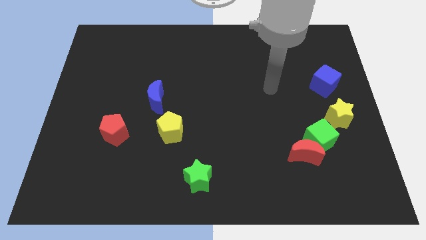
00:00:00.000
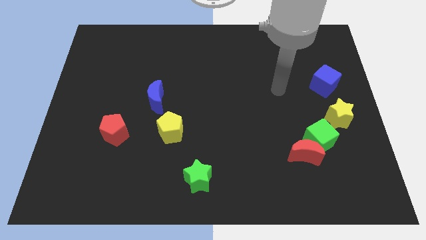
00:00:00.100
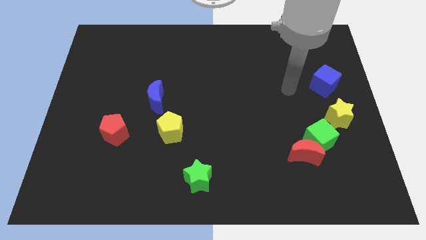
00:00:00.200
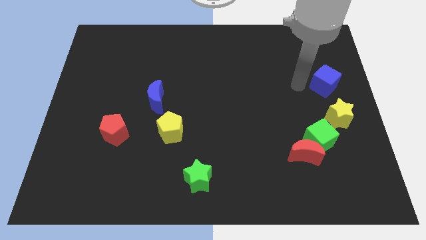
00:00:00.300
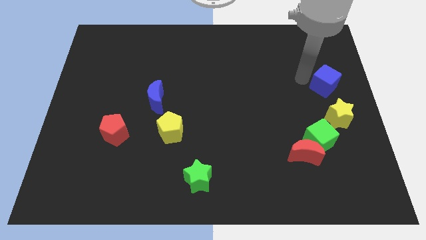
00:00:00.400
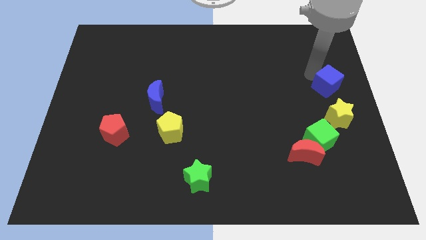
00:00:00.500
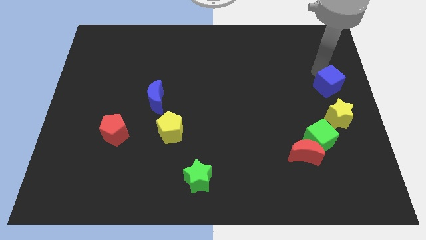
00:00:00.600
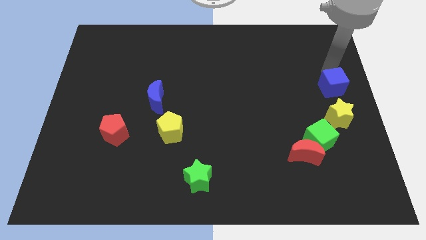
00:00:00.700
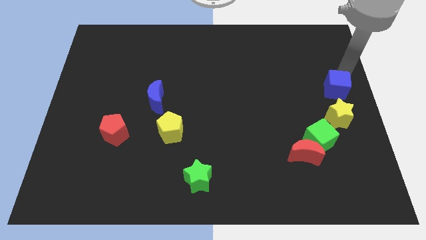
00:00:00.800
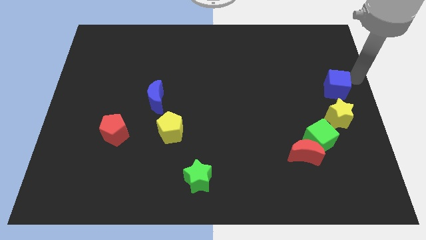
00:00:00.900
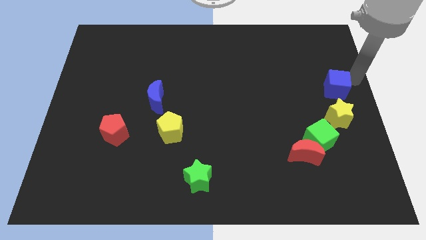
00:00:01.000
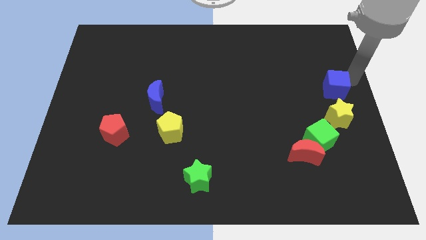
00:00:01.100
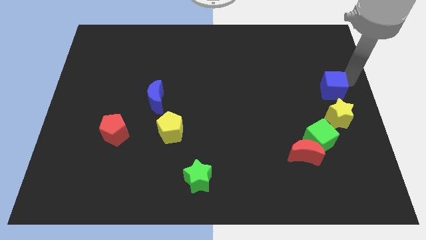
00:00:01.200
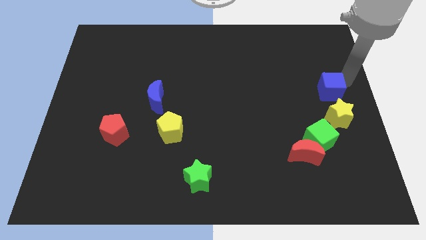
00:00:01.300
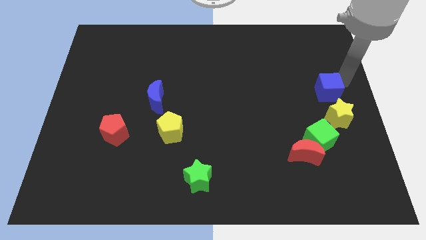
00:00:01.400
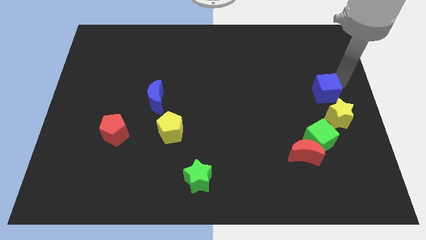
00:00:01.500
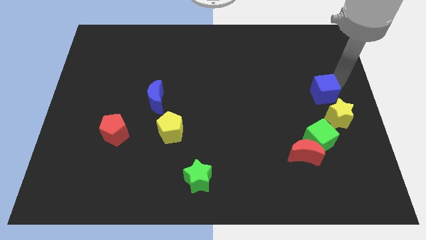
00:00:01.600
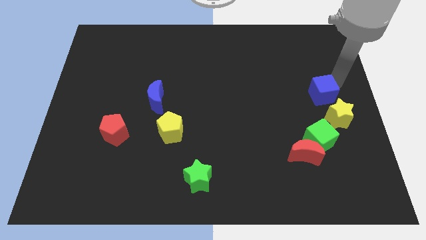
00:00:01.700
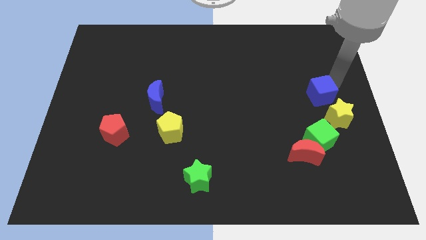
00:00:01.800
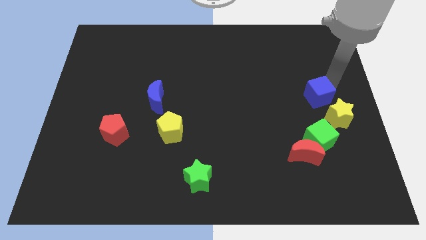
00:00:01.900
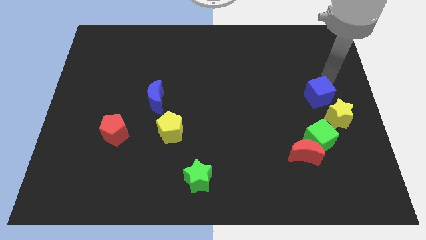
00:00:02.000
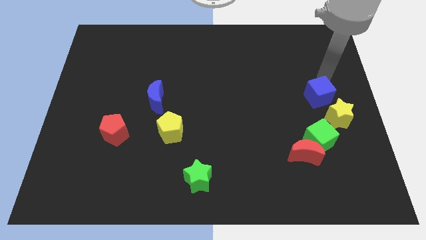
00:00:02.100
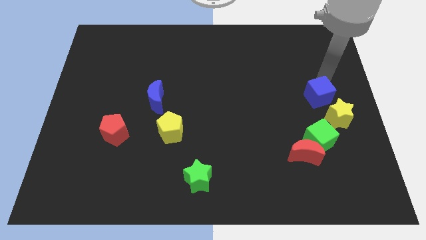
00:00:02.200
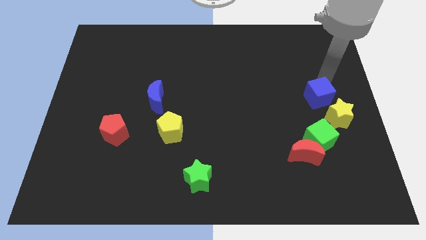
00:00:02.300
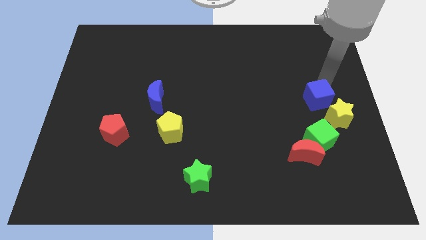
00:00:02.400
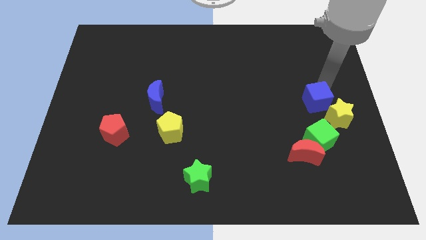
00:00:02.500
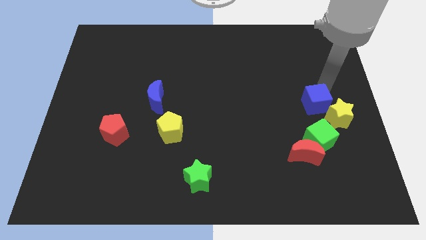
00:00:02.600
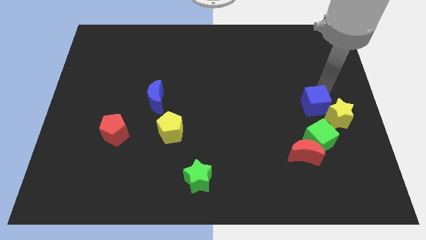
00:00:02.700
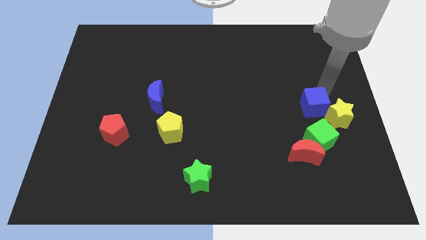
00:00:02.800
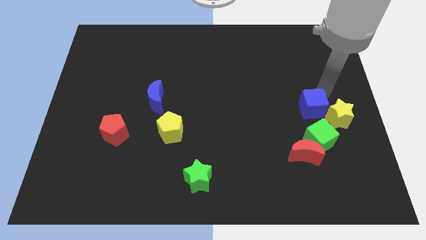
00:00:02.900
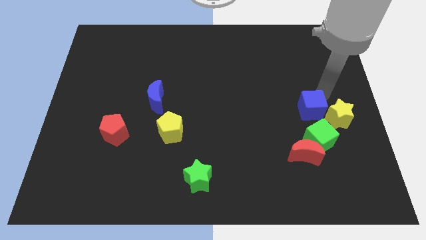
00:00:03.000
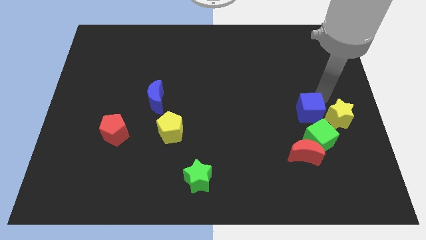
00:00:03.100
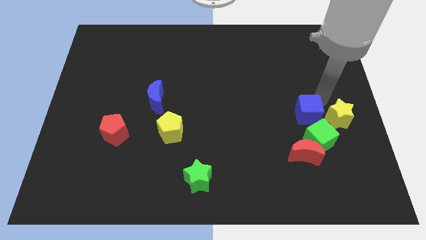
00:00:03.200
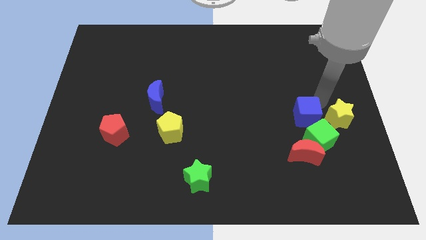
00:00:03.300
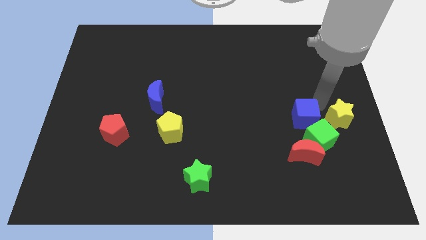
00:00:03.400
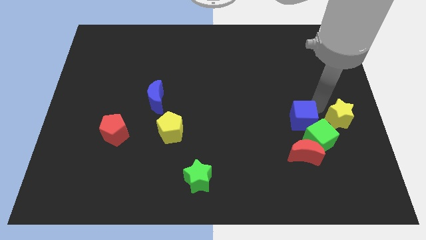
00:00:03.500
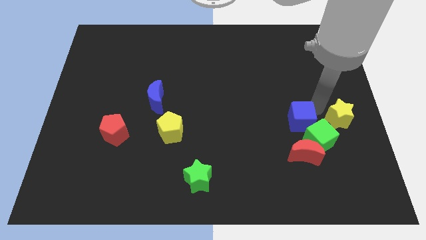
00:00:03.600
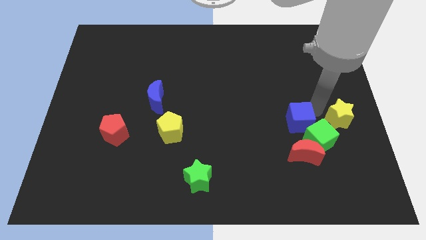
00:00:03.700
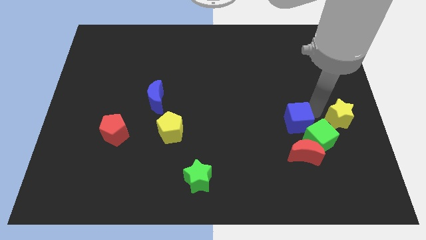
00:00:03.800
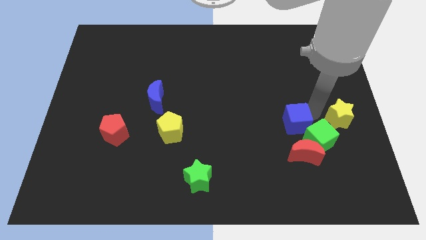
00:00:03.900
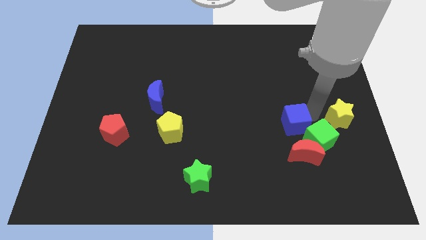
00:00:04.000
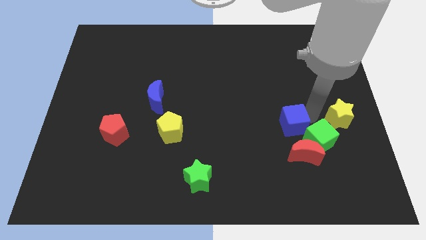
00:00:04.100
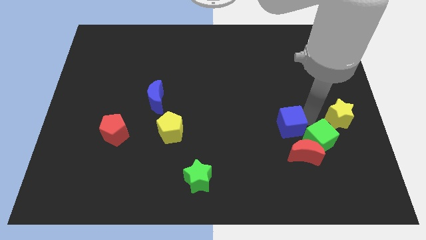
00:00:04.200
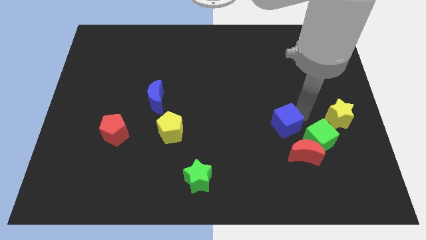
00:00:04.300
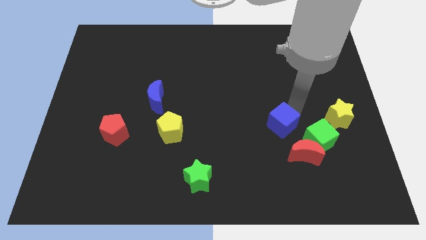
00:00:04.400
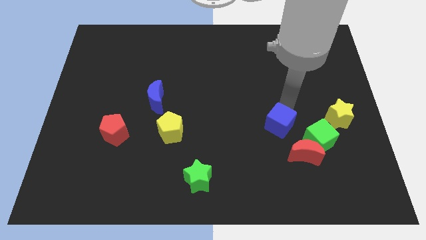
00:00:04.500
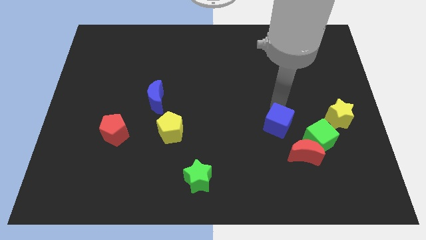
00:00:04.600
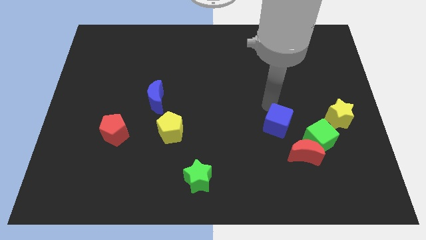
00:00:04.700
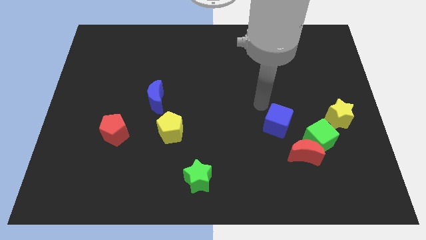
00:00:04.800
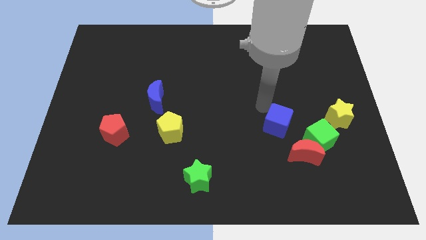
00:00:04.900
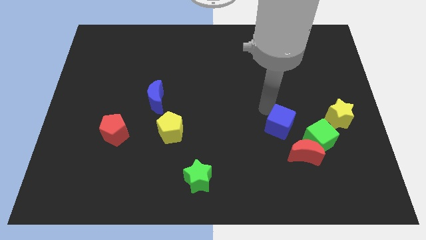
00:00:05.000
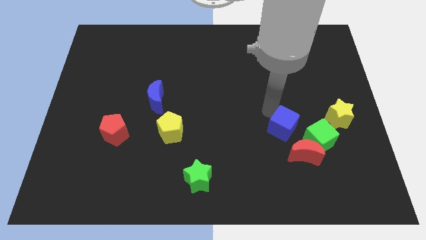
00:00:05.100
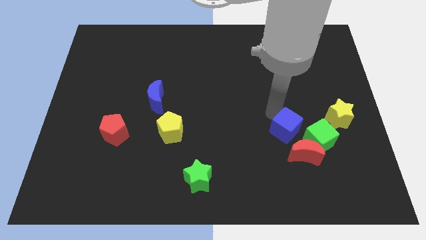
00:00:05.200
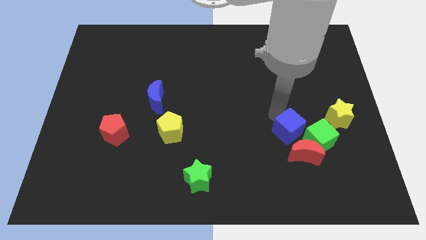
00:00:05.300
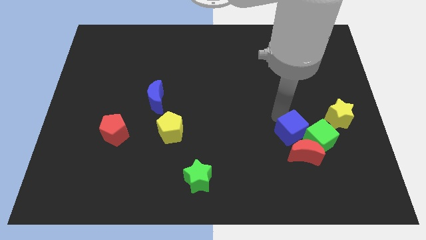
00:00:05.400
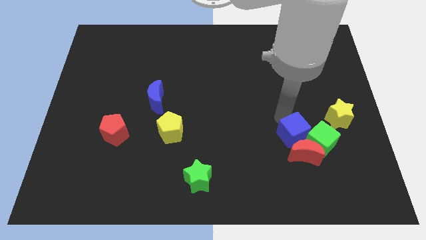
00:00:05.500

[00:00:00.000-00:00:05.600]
slide the blue cube close to the red moon

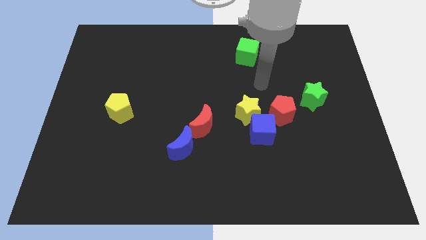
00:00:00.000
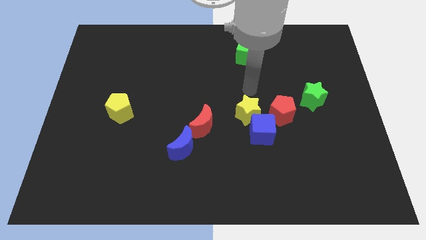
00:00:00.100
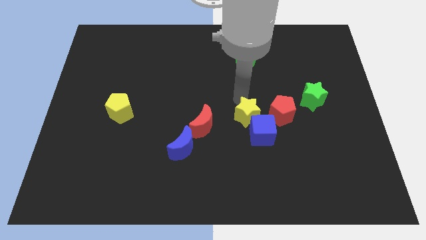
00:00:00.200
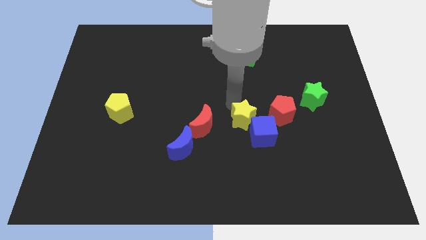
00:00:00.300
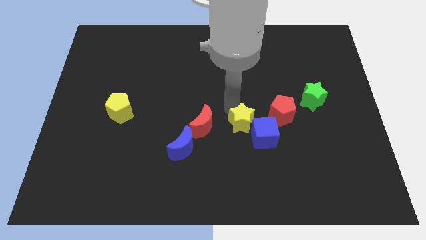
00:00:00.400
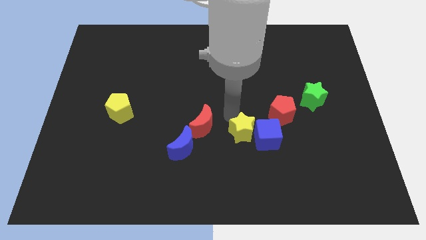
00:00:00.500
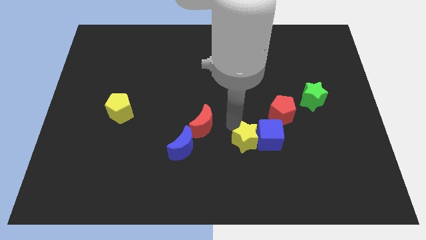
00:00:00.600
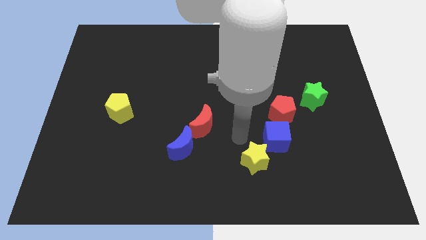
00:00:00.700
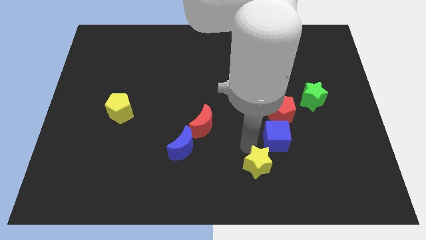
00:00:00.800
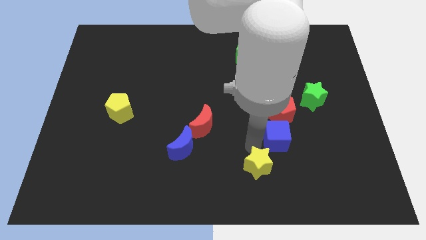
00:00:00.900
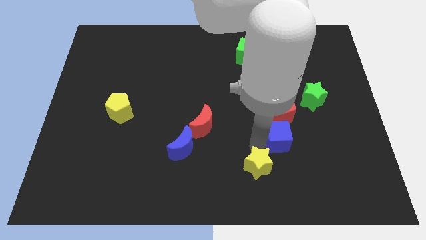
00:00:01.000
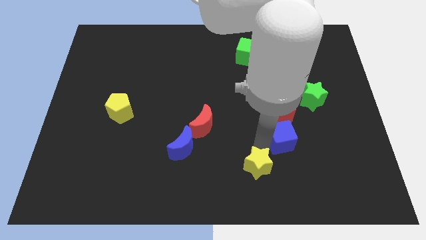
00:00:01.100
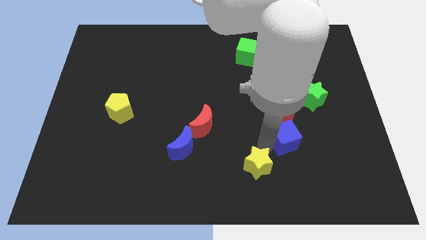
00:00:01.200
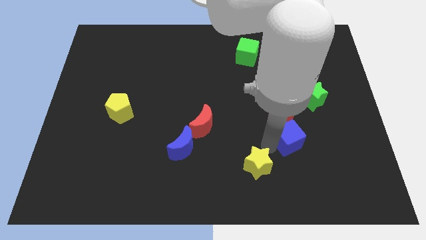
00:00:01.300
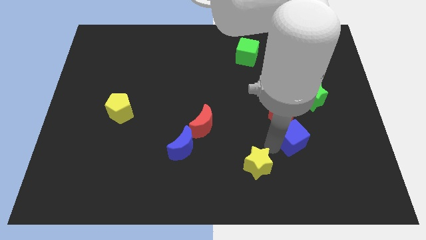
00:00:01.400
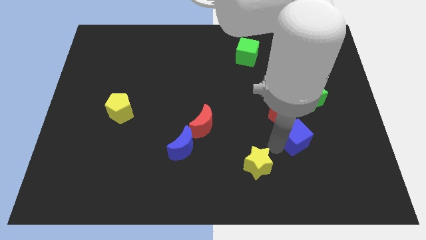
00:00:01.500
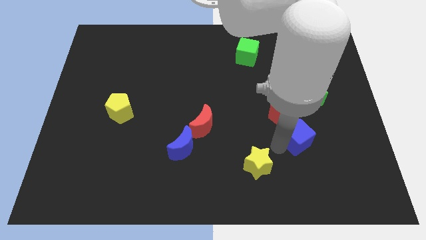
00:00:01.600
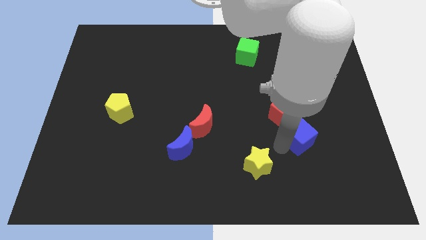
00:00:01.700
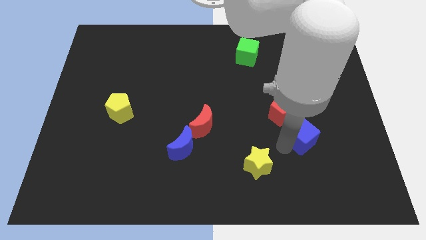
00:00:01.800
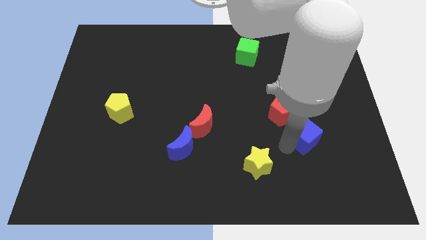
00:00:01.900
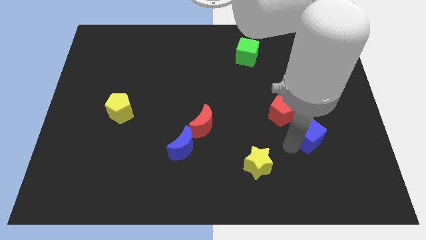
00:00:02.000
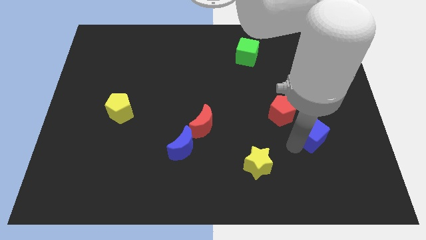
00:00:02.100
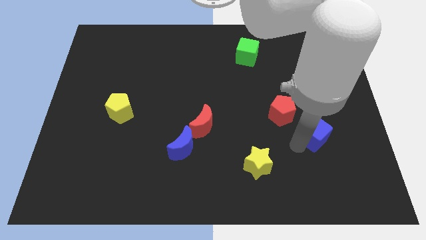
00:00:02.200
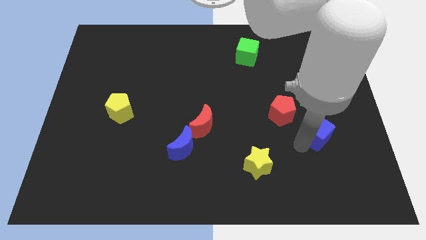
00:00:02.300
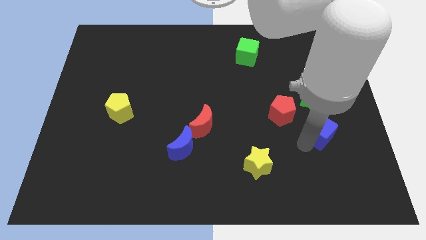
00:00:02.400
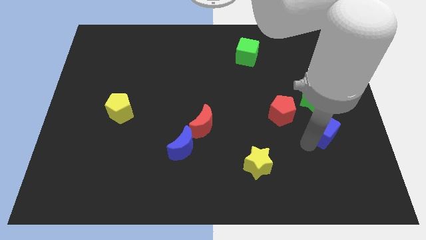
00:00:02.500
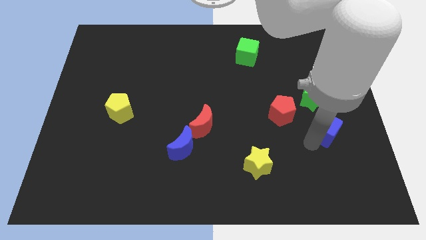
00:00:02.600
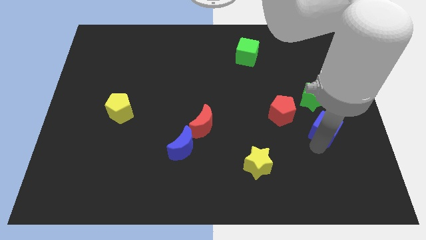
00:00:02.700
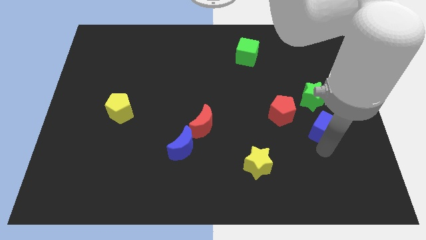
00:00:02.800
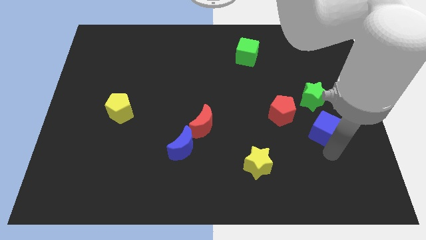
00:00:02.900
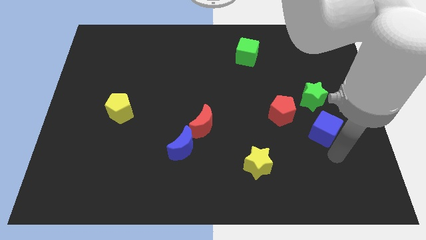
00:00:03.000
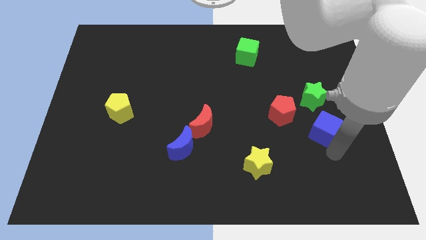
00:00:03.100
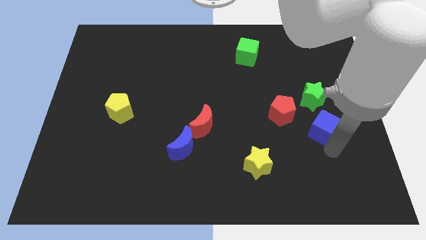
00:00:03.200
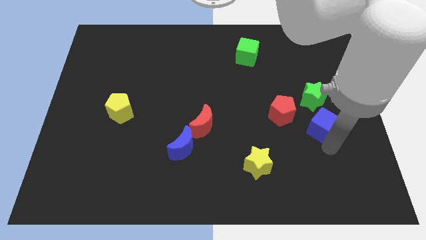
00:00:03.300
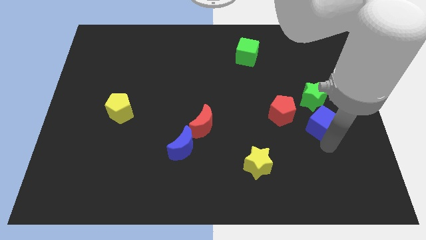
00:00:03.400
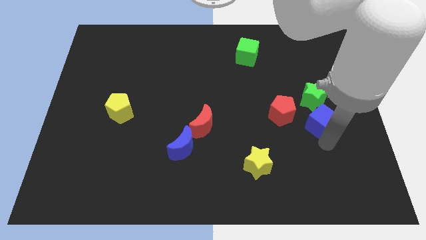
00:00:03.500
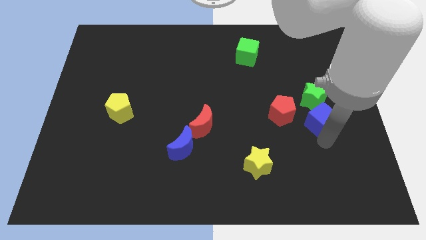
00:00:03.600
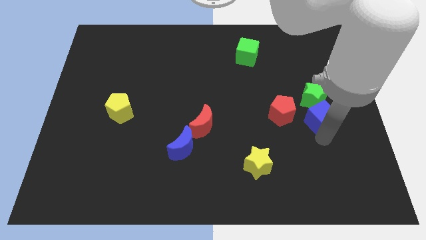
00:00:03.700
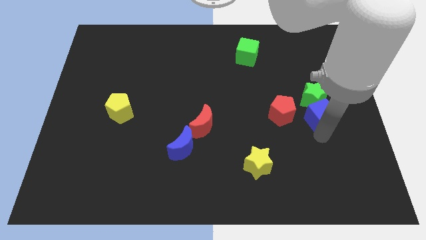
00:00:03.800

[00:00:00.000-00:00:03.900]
move the blue cube towards the green star
